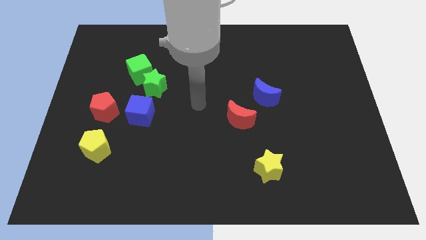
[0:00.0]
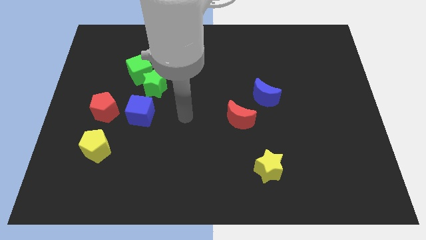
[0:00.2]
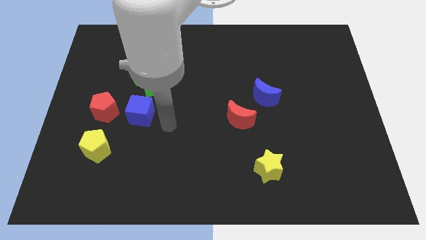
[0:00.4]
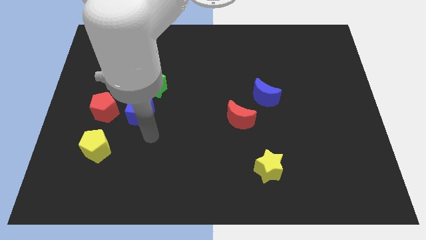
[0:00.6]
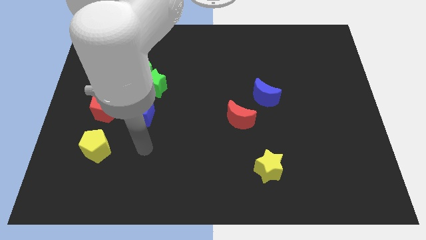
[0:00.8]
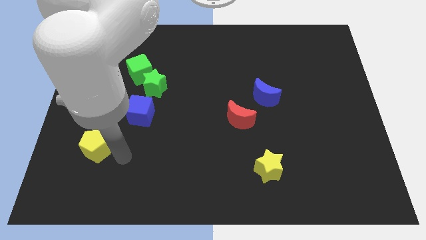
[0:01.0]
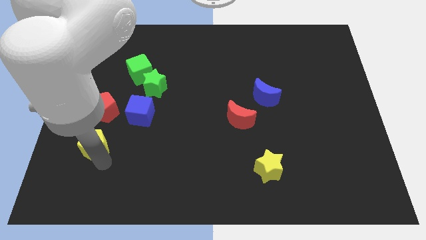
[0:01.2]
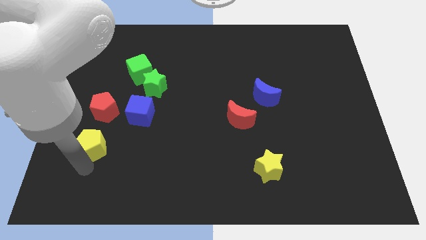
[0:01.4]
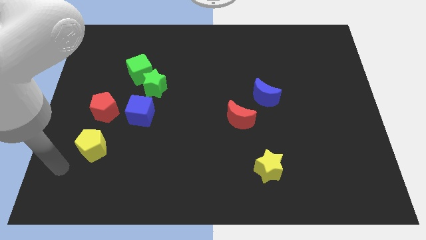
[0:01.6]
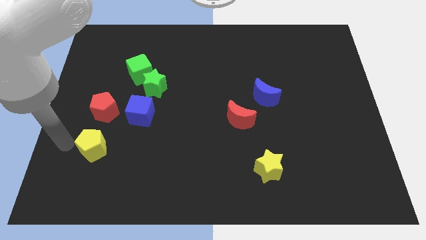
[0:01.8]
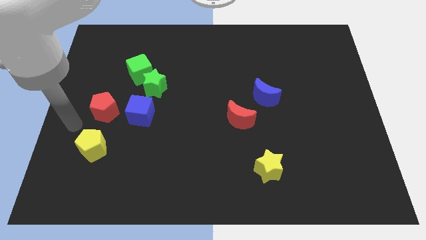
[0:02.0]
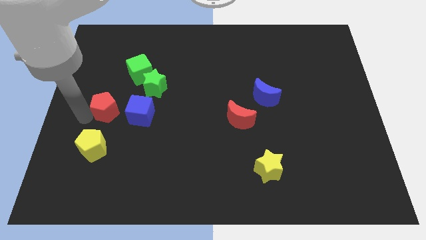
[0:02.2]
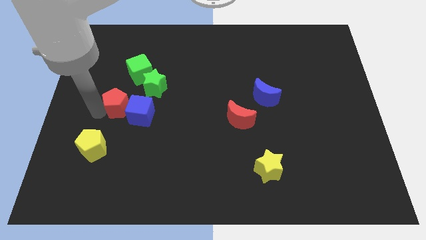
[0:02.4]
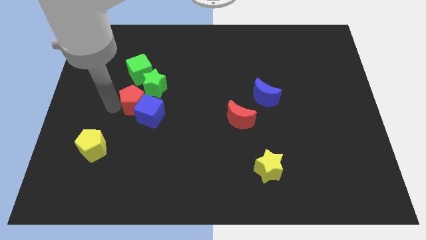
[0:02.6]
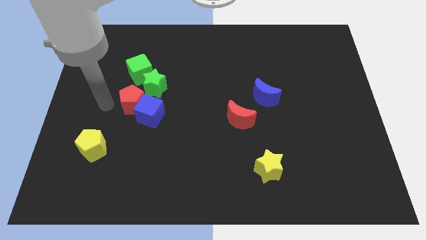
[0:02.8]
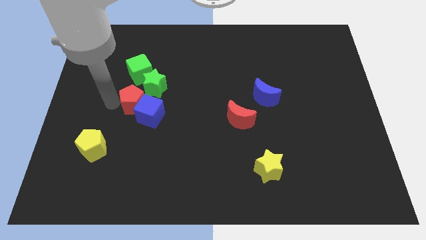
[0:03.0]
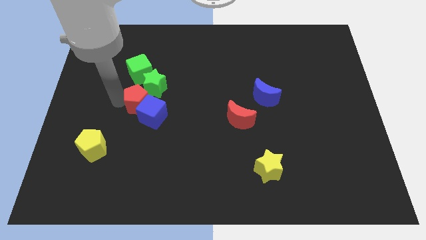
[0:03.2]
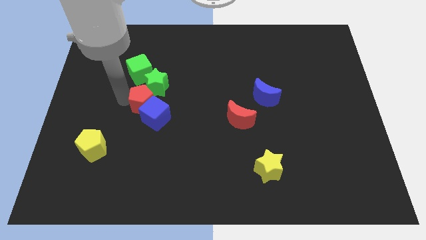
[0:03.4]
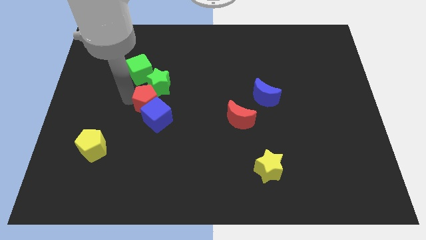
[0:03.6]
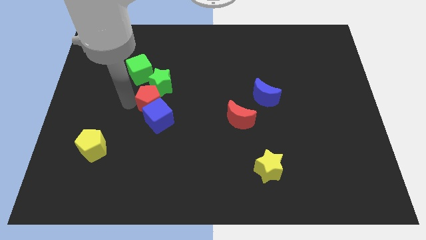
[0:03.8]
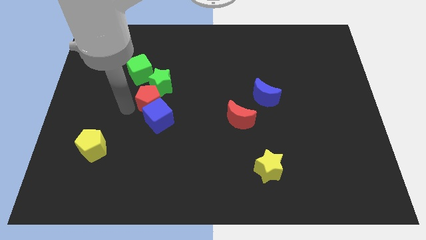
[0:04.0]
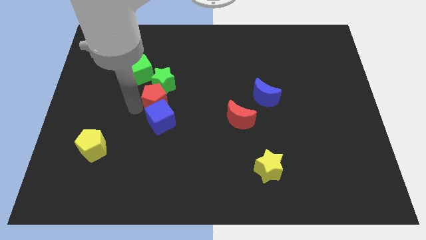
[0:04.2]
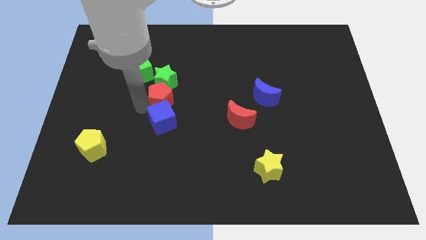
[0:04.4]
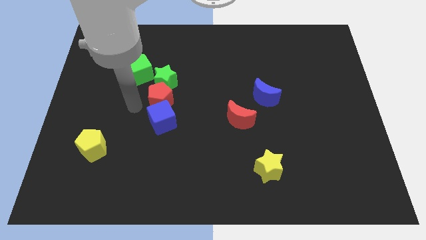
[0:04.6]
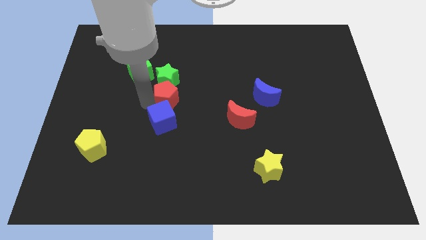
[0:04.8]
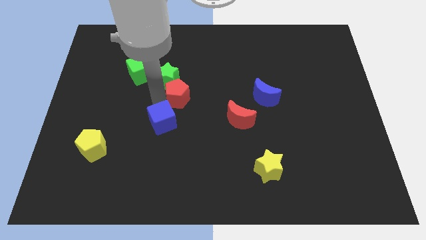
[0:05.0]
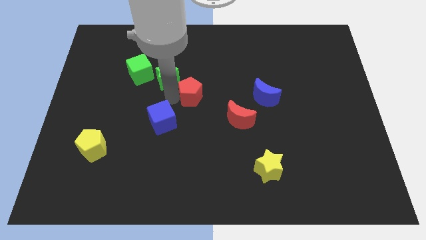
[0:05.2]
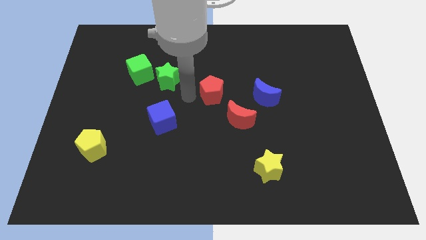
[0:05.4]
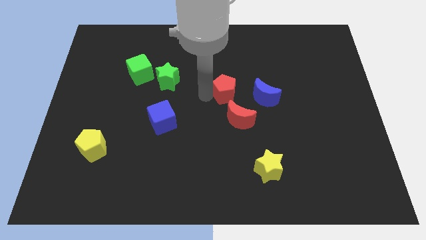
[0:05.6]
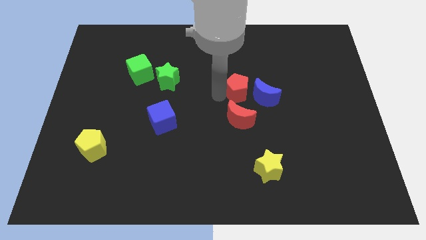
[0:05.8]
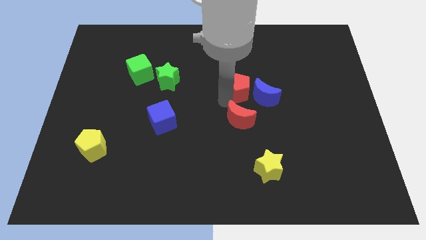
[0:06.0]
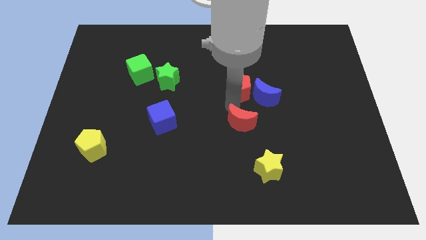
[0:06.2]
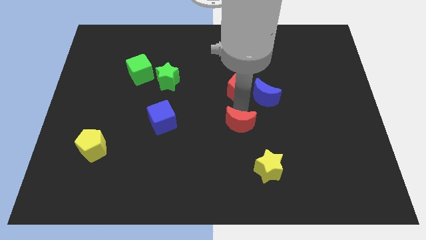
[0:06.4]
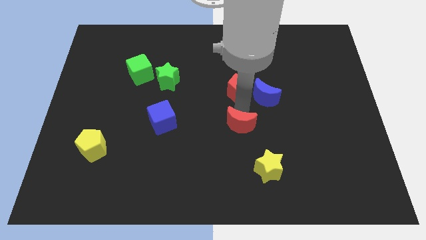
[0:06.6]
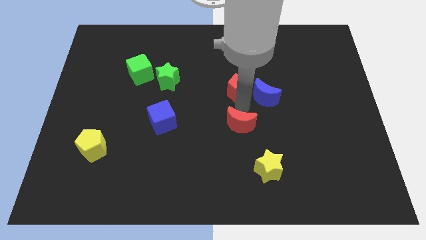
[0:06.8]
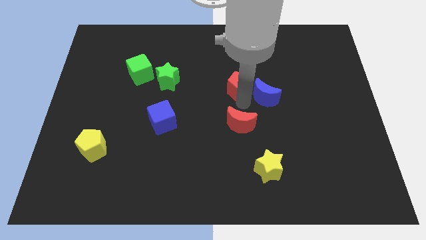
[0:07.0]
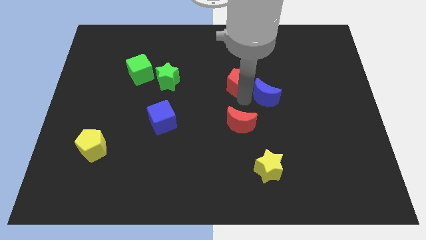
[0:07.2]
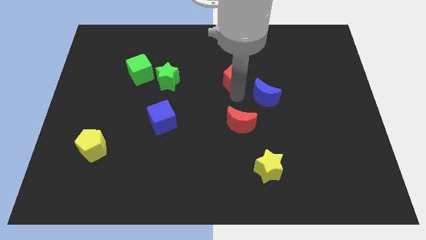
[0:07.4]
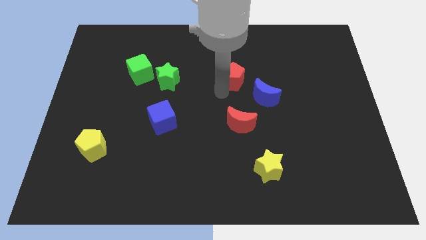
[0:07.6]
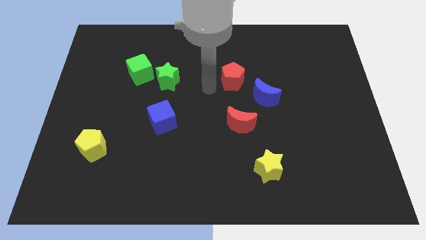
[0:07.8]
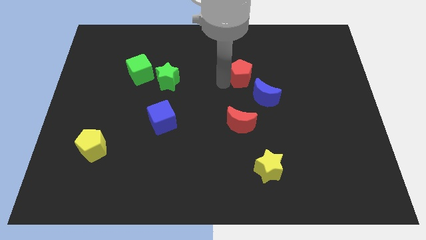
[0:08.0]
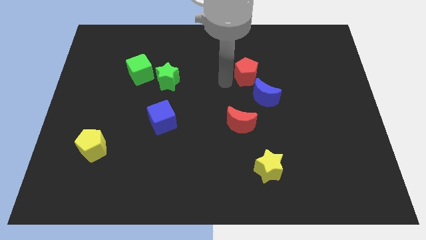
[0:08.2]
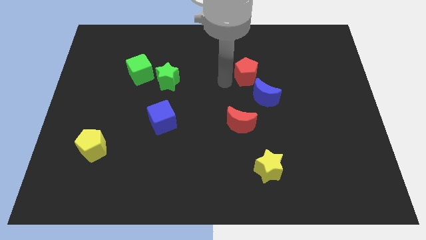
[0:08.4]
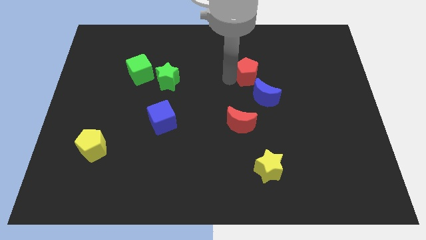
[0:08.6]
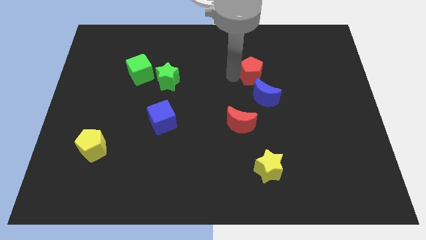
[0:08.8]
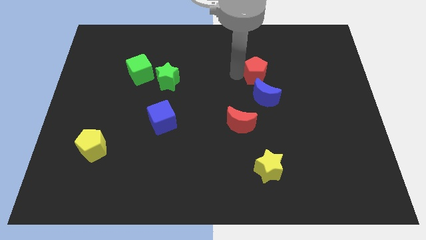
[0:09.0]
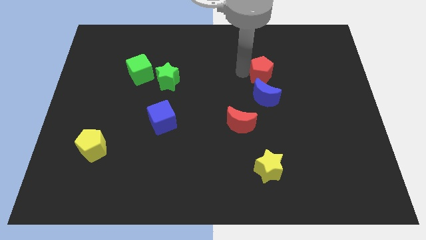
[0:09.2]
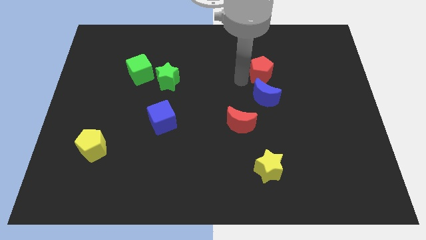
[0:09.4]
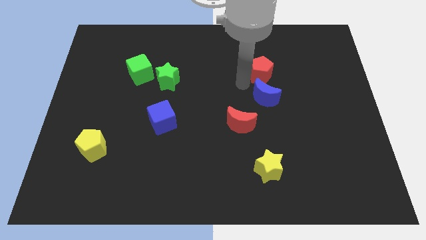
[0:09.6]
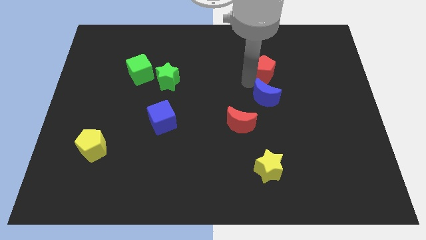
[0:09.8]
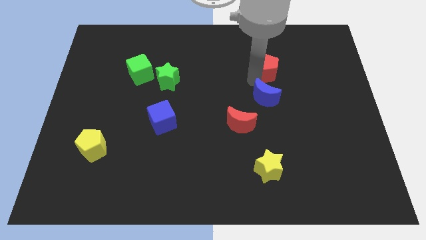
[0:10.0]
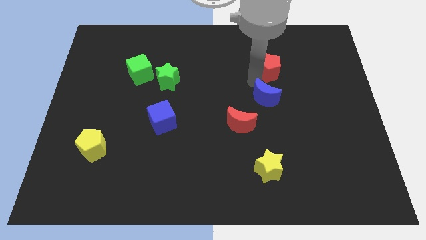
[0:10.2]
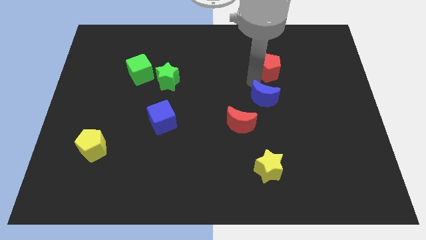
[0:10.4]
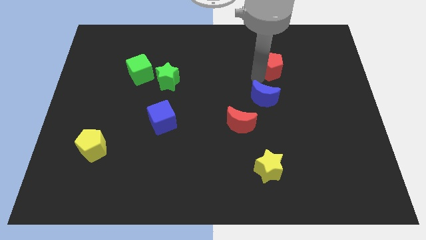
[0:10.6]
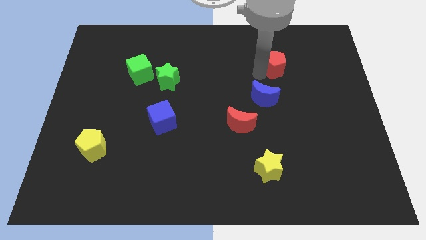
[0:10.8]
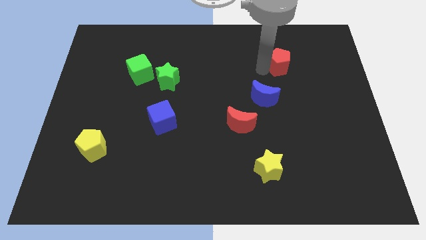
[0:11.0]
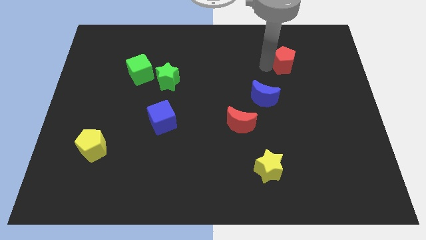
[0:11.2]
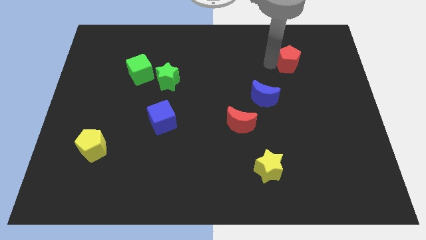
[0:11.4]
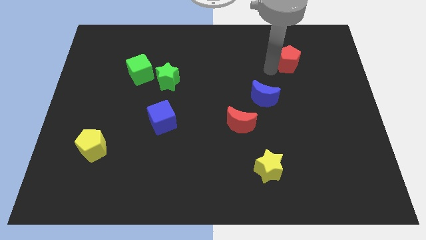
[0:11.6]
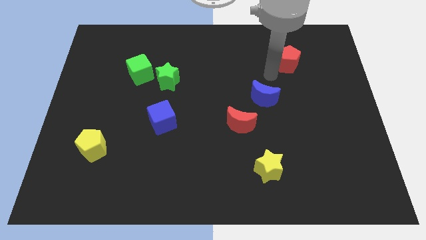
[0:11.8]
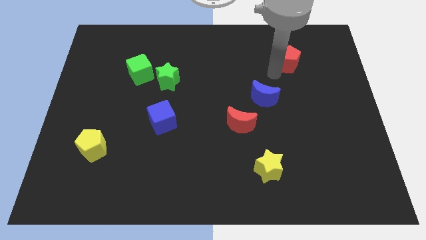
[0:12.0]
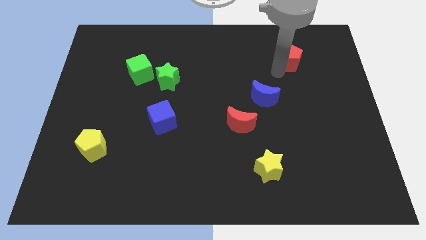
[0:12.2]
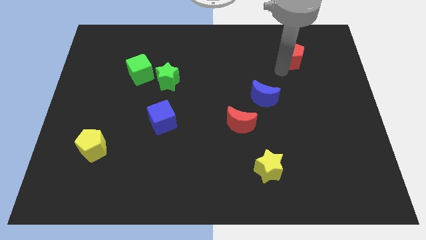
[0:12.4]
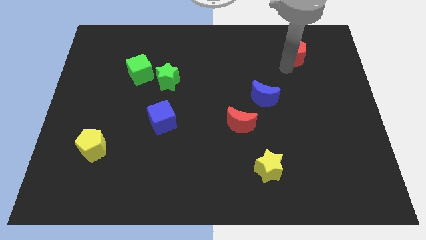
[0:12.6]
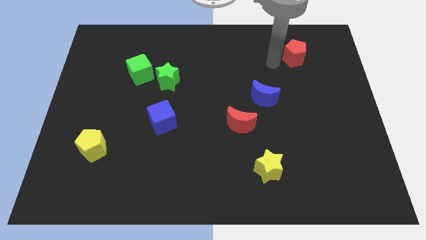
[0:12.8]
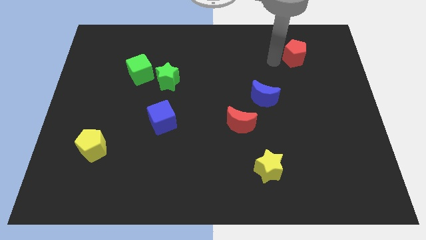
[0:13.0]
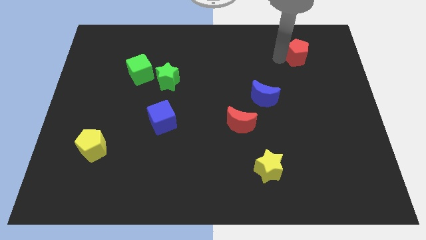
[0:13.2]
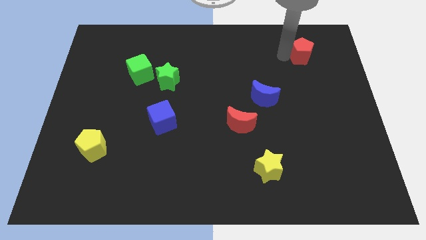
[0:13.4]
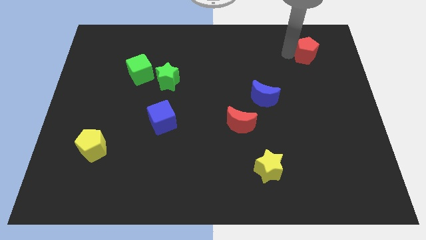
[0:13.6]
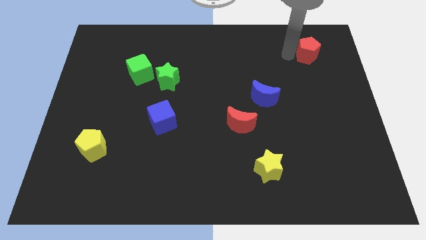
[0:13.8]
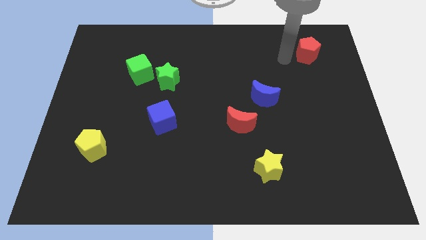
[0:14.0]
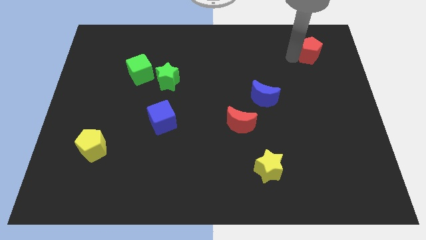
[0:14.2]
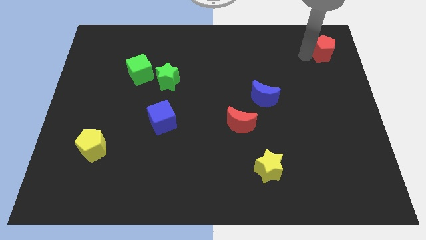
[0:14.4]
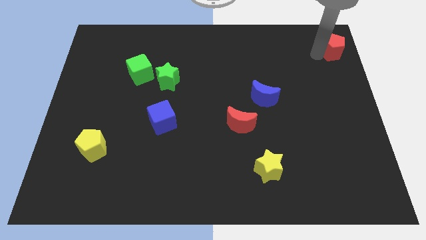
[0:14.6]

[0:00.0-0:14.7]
put the red pentagon to the top right
